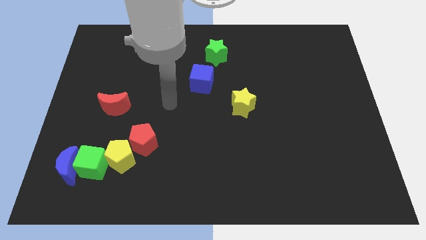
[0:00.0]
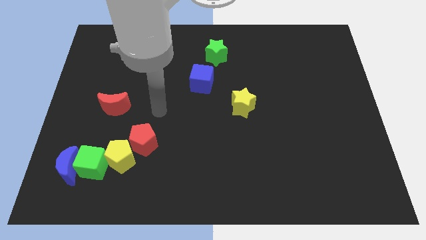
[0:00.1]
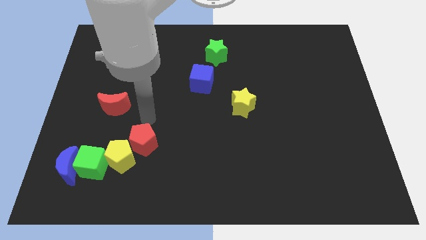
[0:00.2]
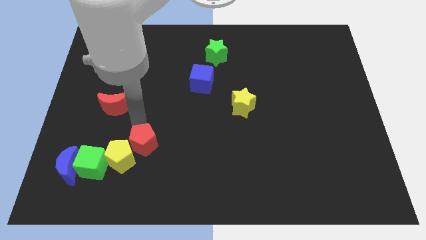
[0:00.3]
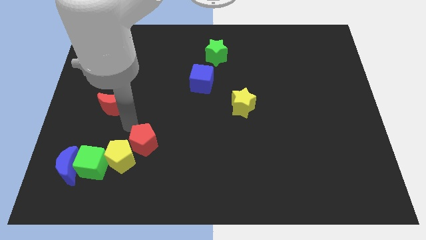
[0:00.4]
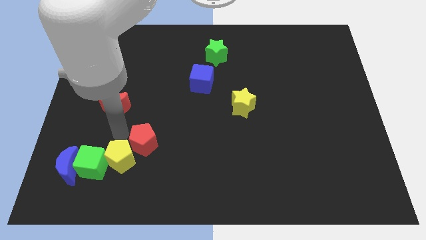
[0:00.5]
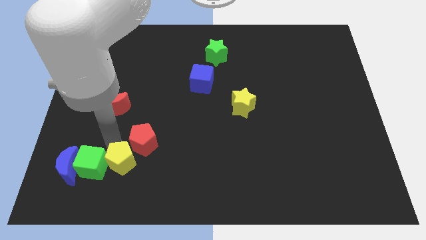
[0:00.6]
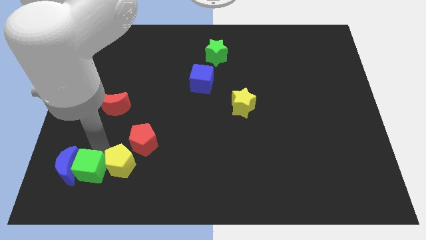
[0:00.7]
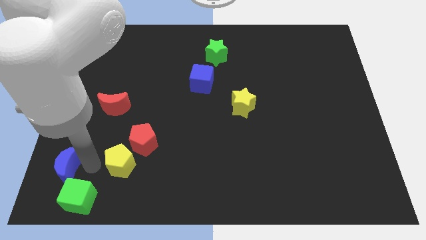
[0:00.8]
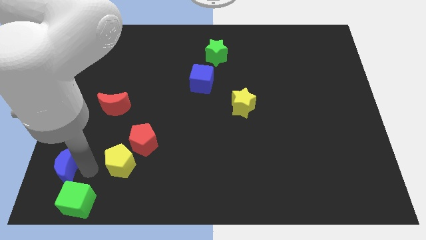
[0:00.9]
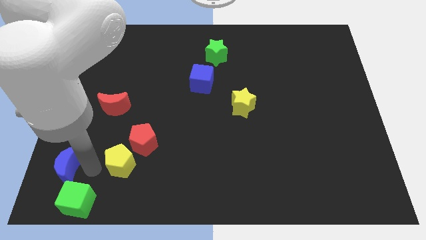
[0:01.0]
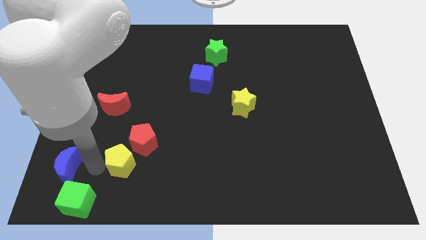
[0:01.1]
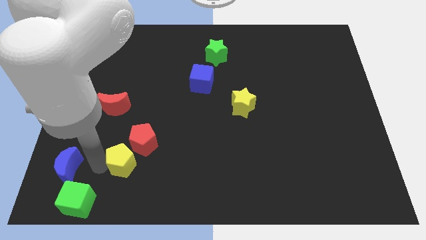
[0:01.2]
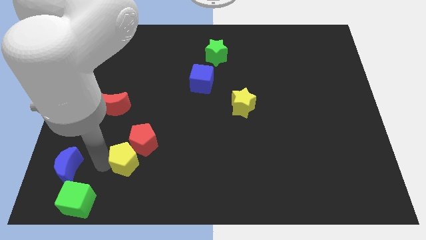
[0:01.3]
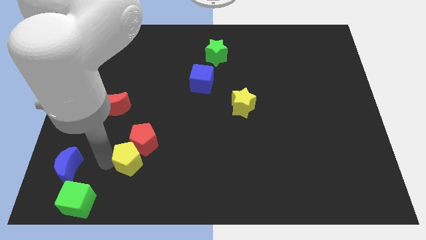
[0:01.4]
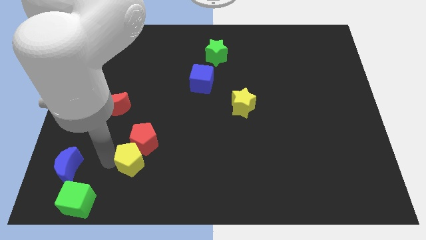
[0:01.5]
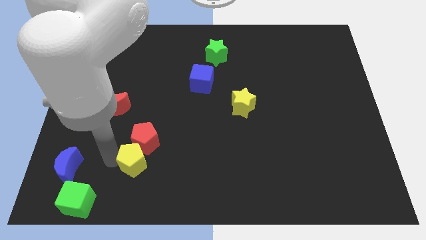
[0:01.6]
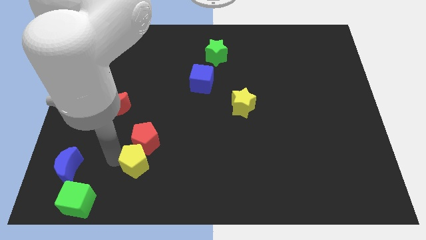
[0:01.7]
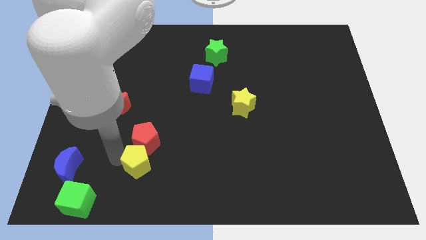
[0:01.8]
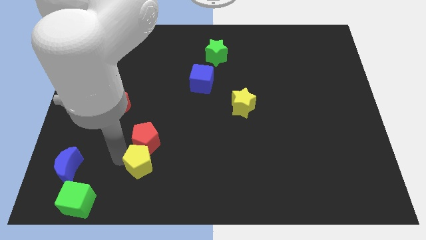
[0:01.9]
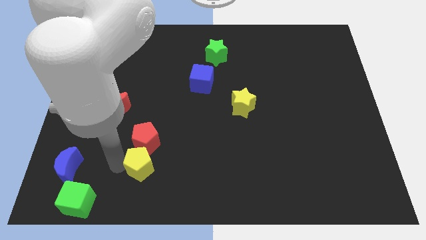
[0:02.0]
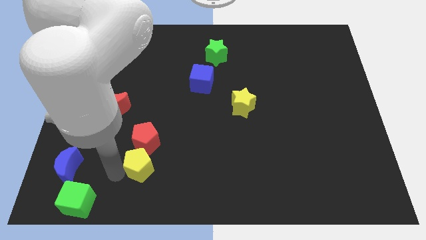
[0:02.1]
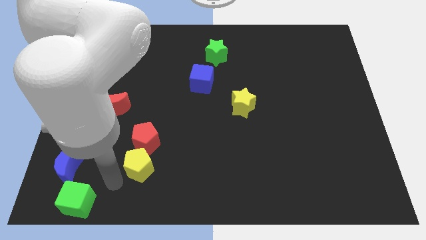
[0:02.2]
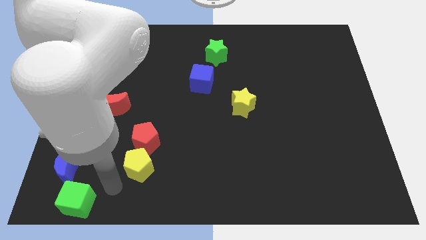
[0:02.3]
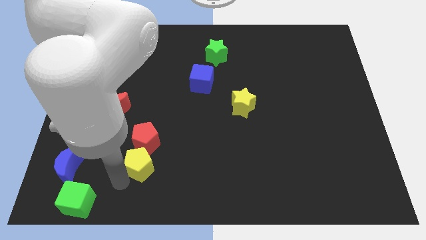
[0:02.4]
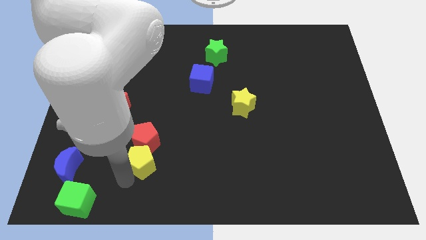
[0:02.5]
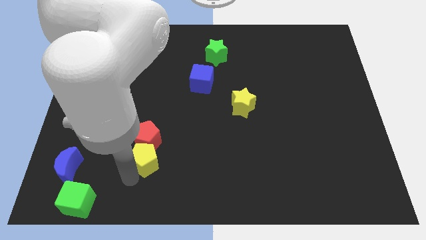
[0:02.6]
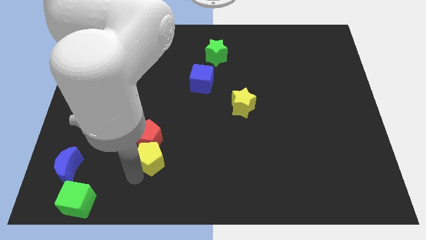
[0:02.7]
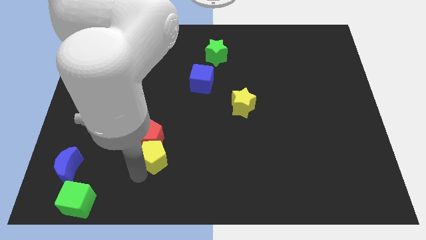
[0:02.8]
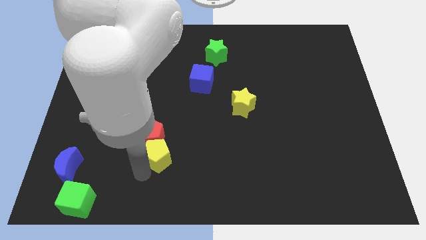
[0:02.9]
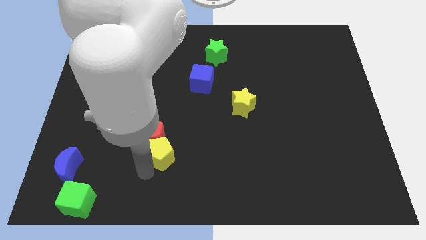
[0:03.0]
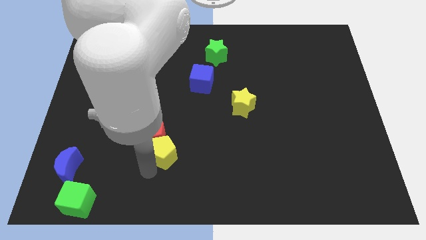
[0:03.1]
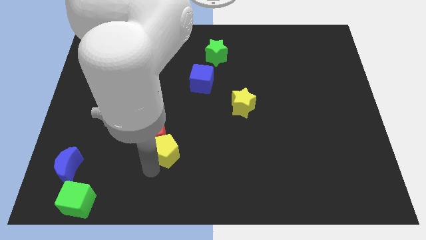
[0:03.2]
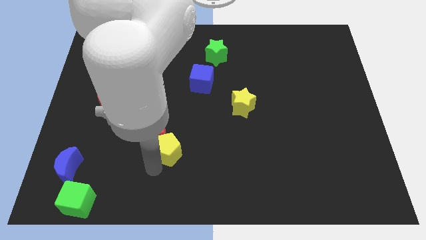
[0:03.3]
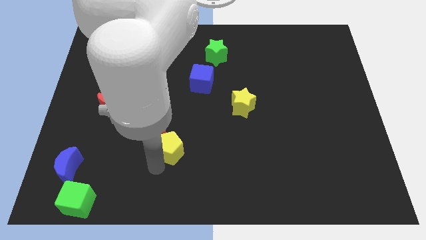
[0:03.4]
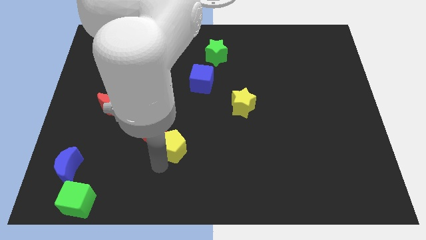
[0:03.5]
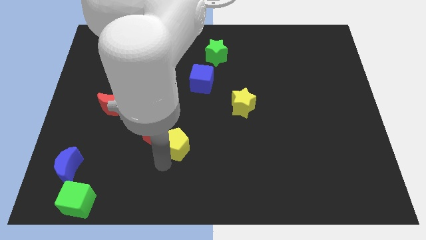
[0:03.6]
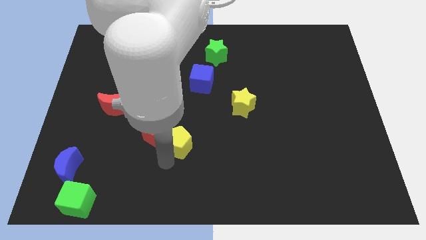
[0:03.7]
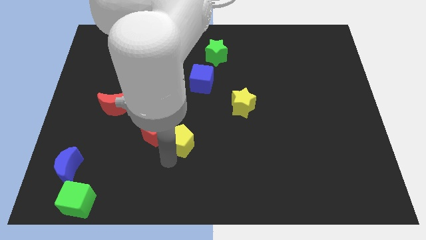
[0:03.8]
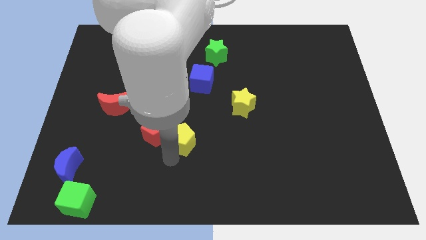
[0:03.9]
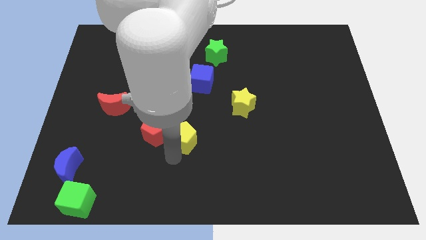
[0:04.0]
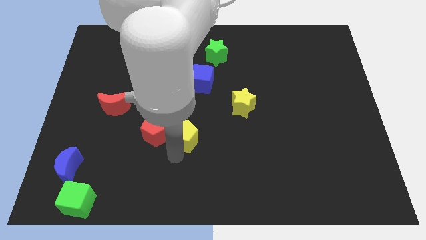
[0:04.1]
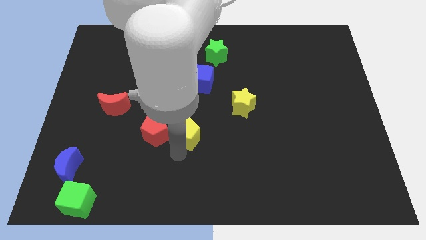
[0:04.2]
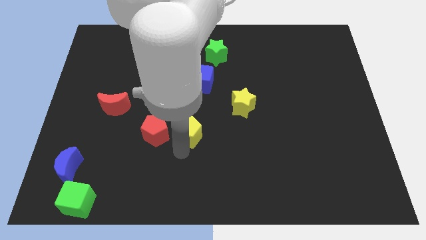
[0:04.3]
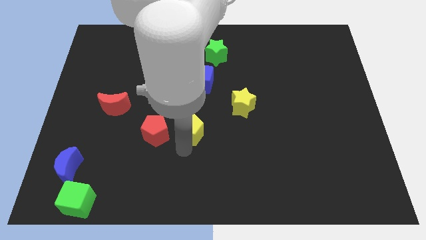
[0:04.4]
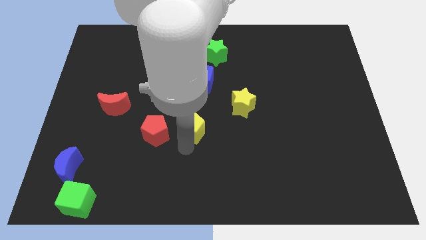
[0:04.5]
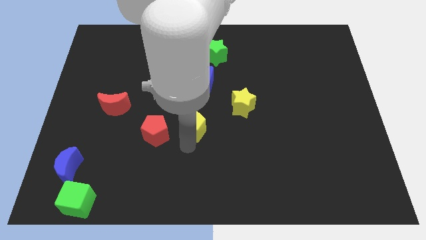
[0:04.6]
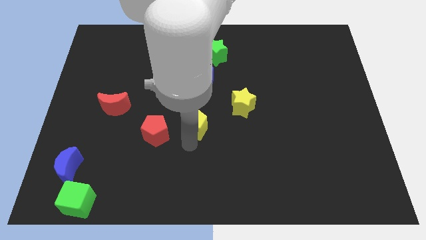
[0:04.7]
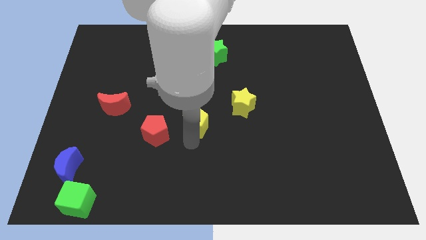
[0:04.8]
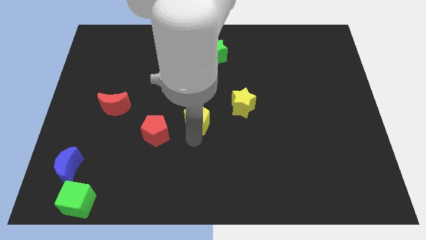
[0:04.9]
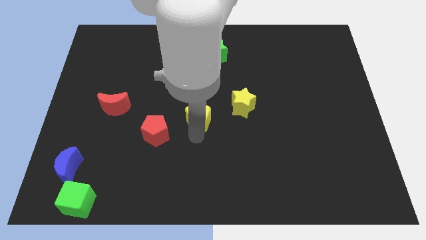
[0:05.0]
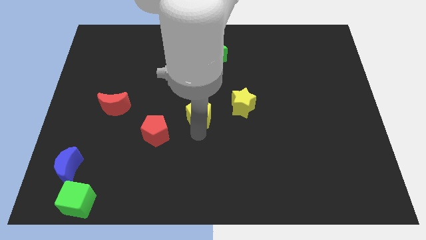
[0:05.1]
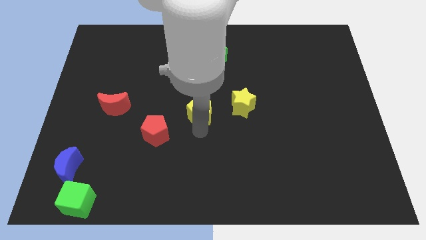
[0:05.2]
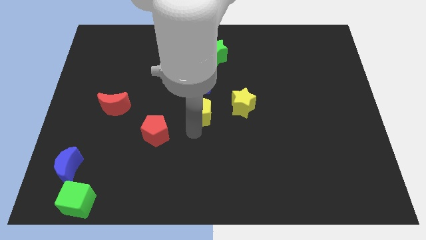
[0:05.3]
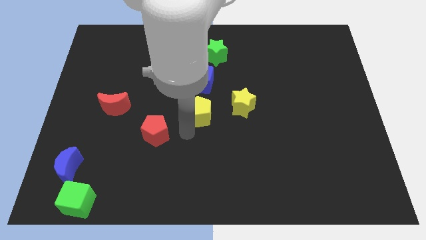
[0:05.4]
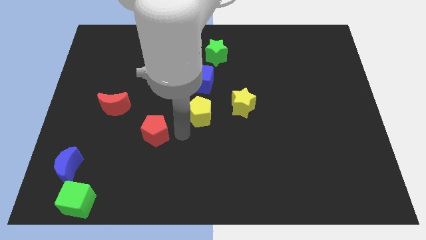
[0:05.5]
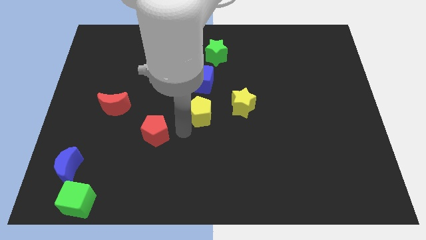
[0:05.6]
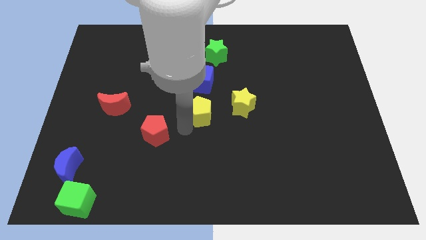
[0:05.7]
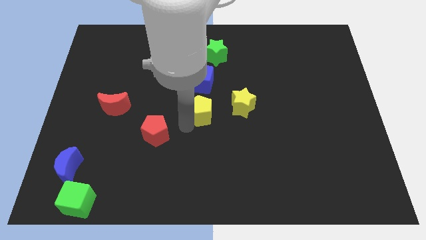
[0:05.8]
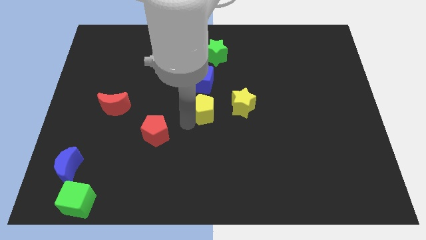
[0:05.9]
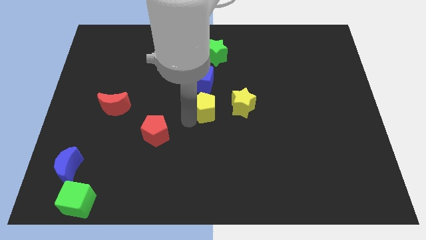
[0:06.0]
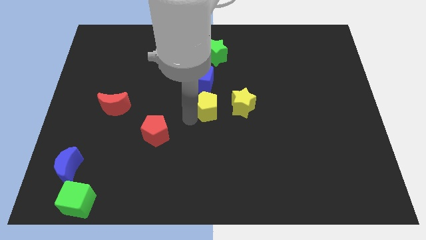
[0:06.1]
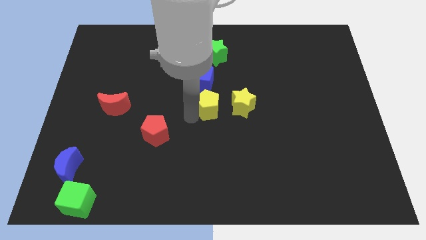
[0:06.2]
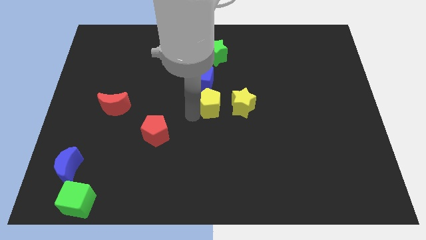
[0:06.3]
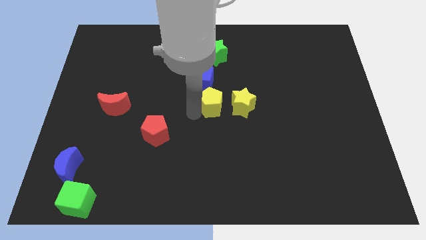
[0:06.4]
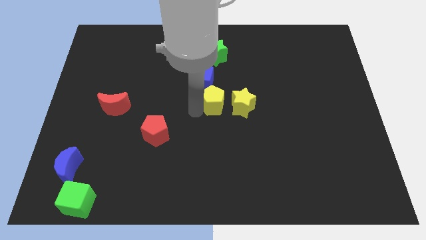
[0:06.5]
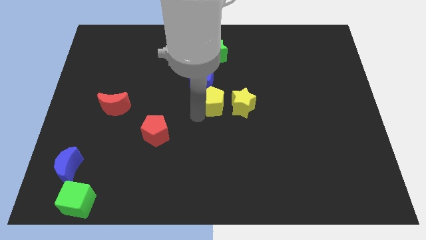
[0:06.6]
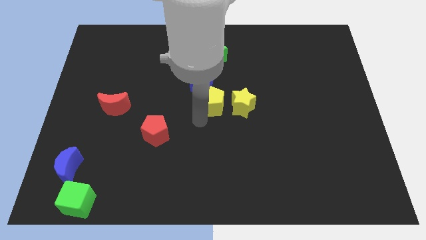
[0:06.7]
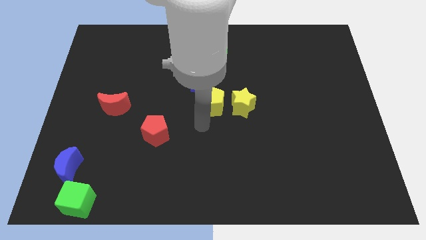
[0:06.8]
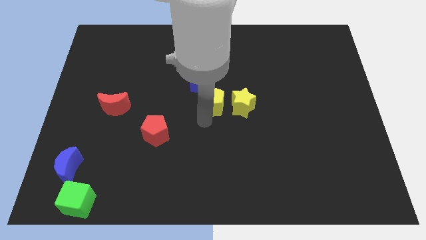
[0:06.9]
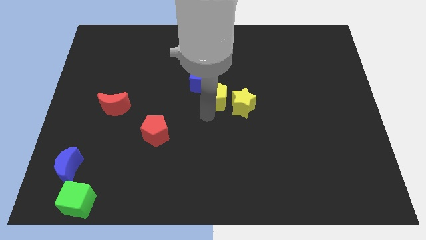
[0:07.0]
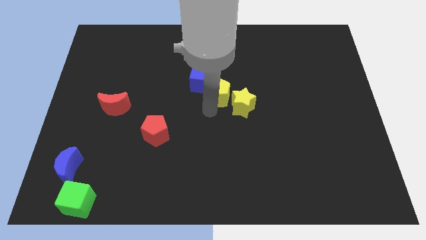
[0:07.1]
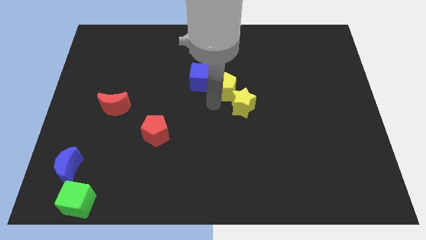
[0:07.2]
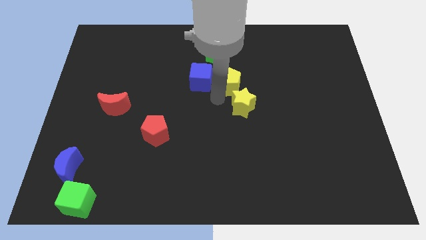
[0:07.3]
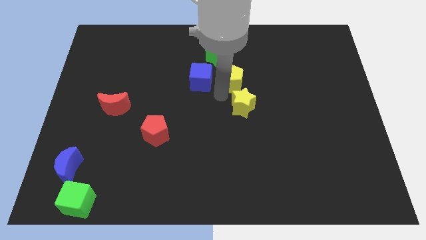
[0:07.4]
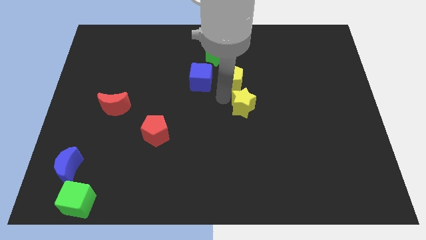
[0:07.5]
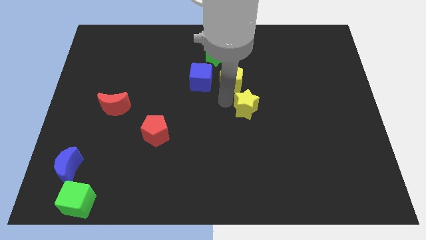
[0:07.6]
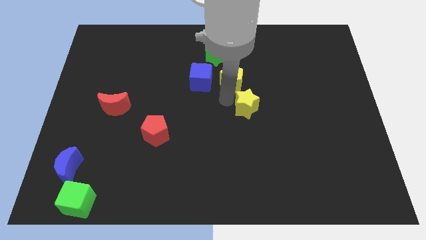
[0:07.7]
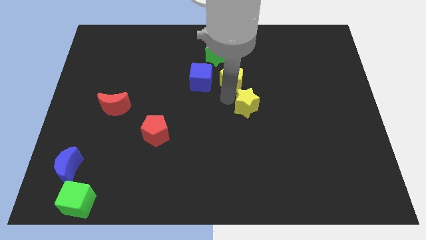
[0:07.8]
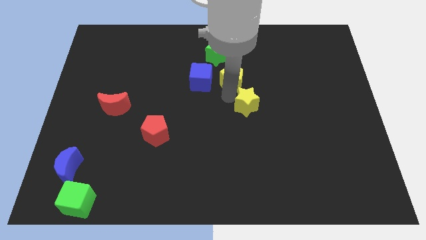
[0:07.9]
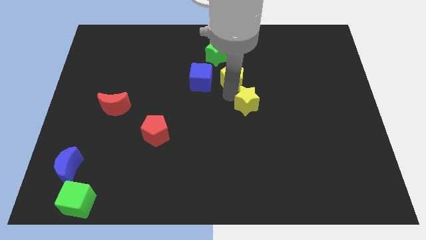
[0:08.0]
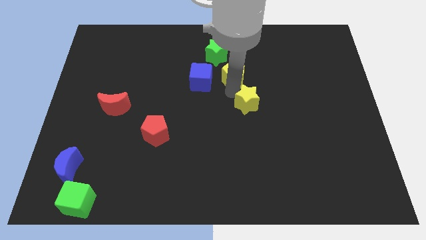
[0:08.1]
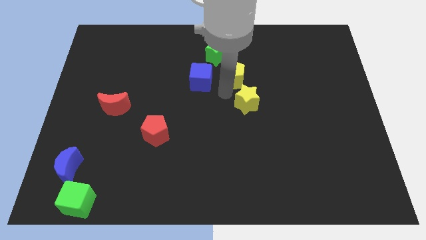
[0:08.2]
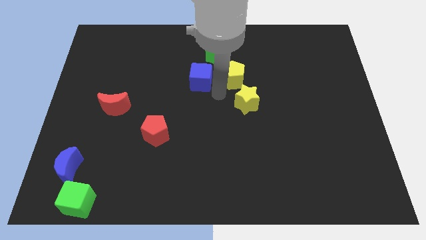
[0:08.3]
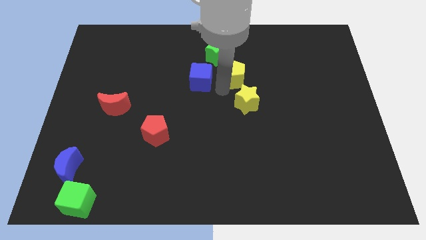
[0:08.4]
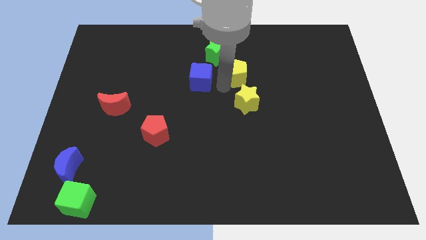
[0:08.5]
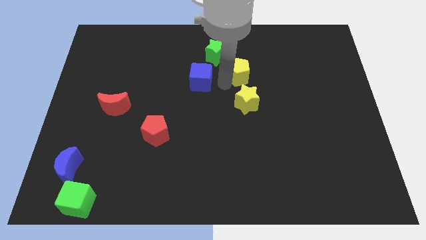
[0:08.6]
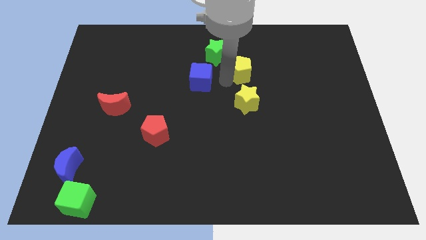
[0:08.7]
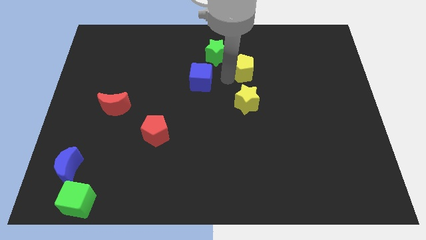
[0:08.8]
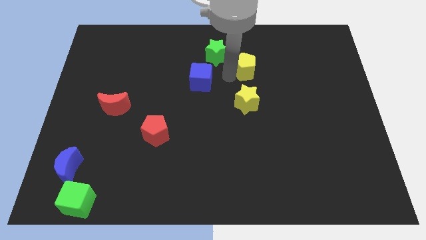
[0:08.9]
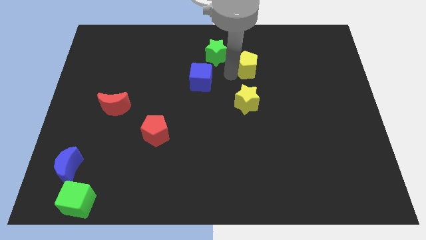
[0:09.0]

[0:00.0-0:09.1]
put the yellow pentagon right of the green star
